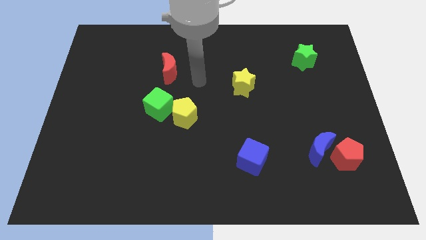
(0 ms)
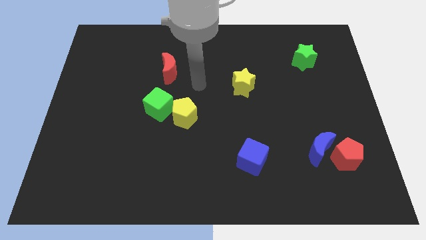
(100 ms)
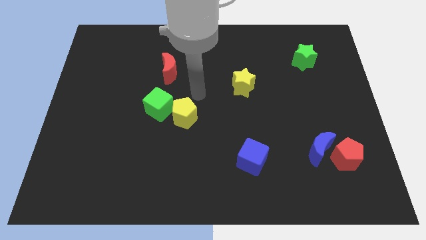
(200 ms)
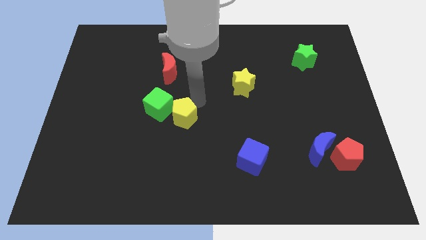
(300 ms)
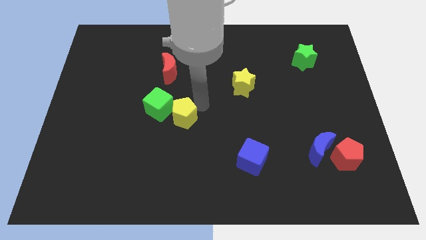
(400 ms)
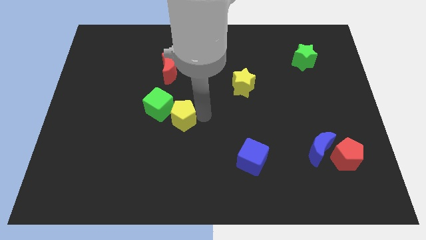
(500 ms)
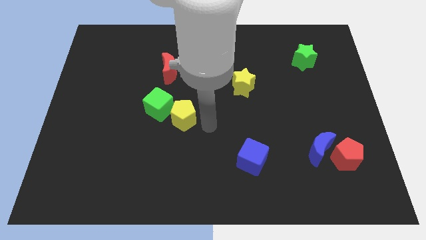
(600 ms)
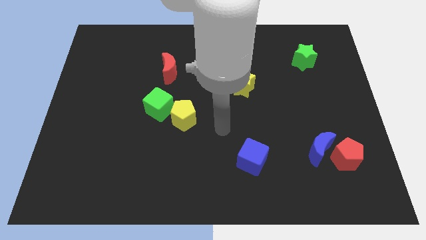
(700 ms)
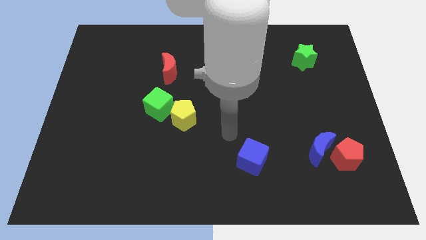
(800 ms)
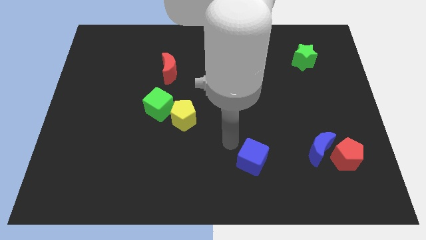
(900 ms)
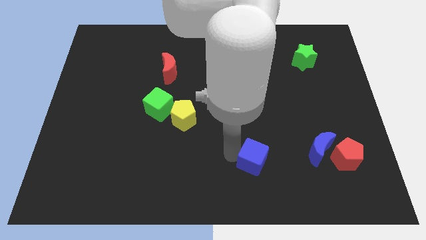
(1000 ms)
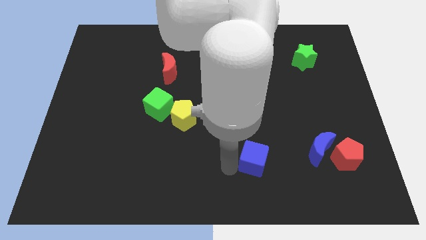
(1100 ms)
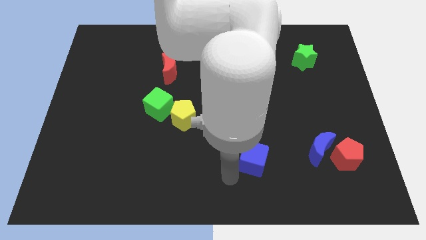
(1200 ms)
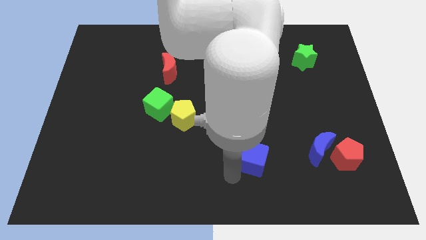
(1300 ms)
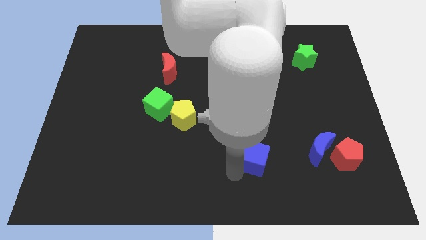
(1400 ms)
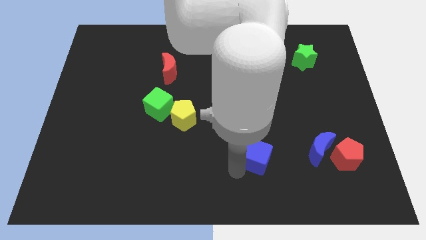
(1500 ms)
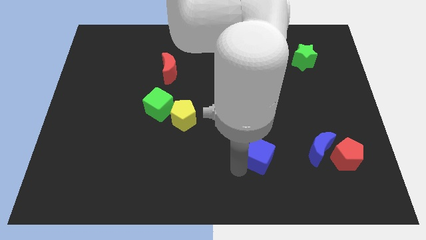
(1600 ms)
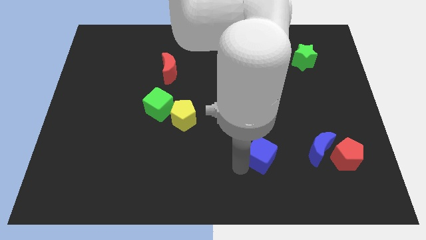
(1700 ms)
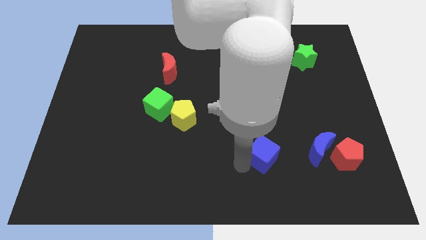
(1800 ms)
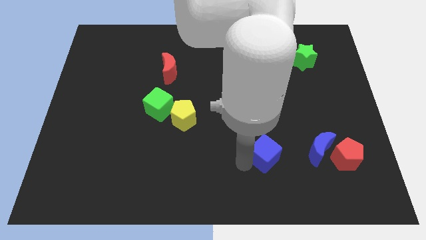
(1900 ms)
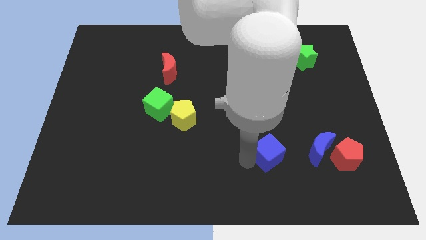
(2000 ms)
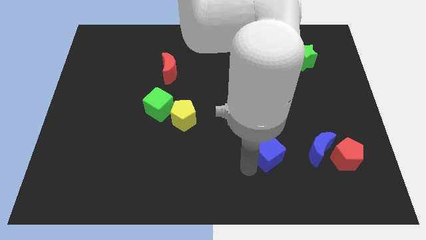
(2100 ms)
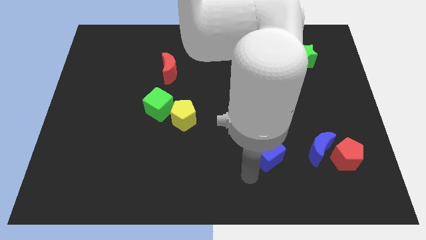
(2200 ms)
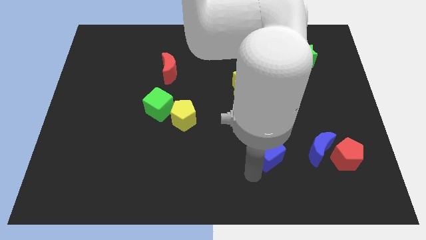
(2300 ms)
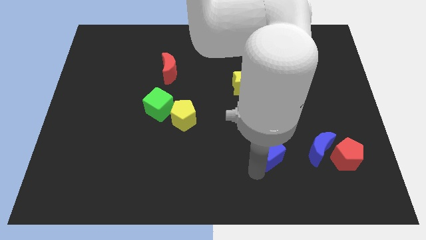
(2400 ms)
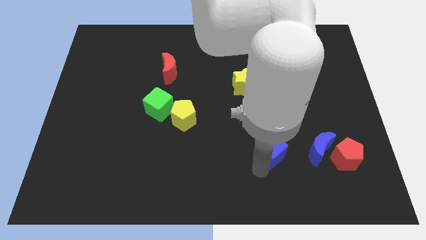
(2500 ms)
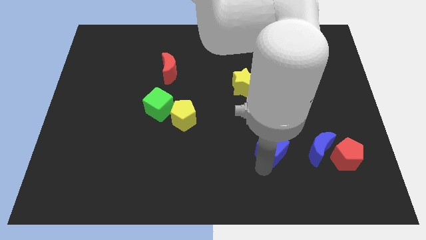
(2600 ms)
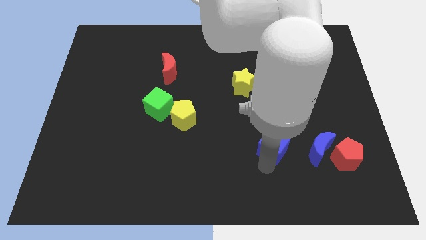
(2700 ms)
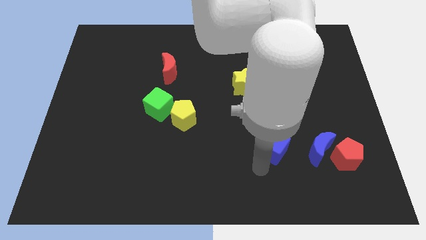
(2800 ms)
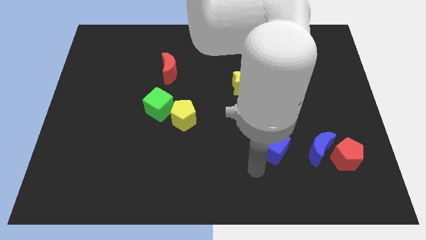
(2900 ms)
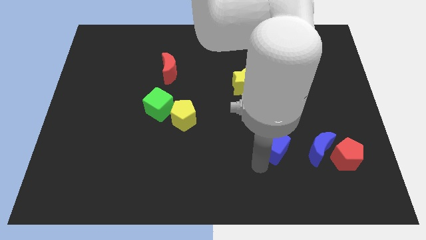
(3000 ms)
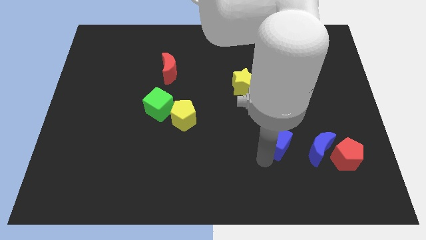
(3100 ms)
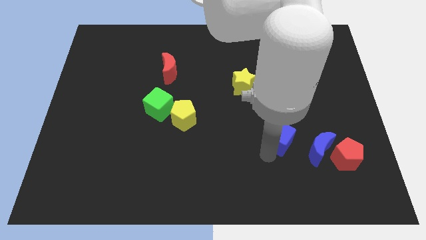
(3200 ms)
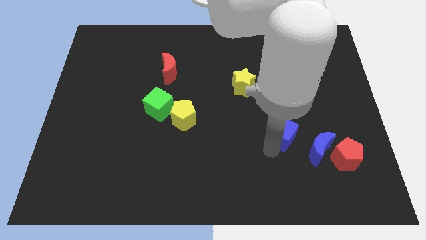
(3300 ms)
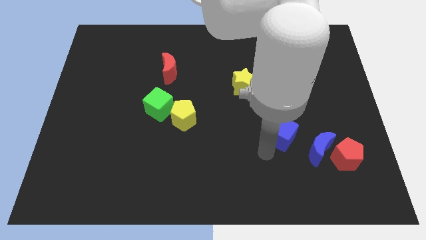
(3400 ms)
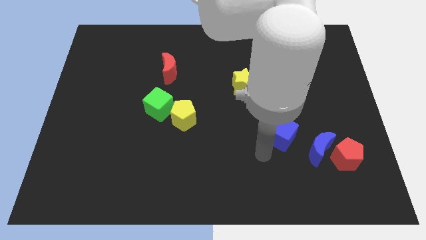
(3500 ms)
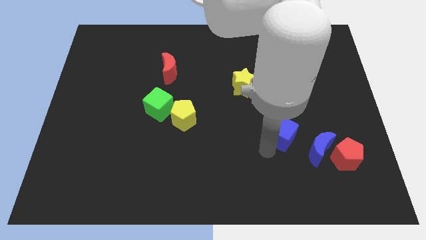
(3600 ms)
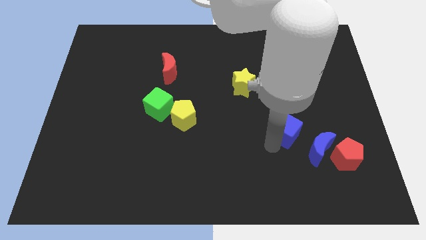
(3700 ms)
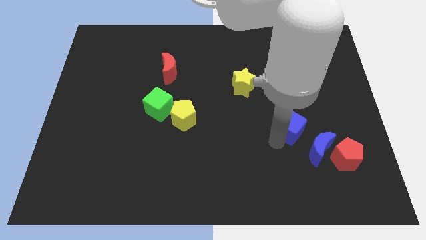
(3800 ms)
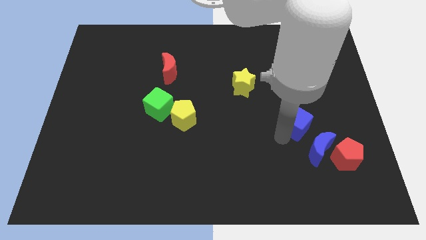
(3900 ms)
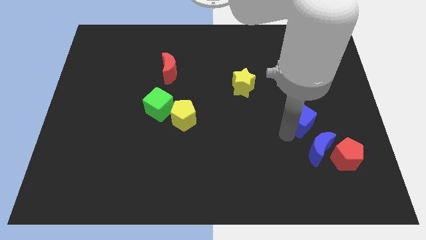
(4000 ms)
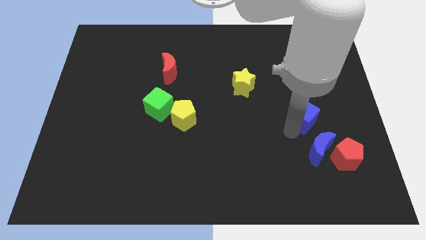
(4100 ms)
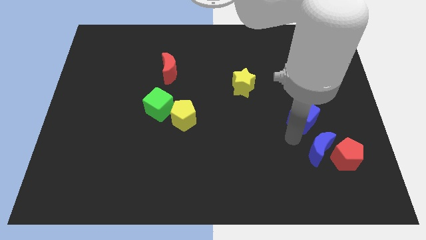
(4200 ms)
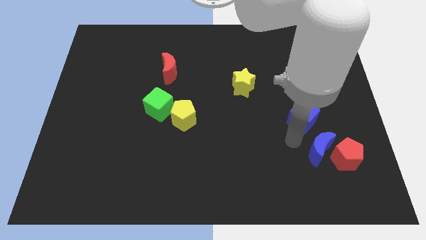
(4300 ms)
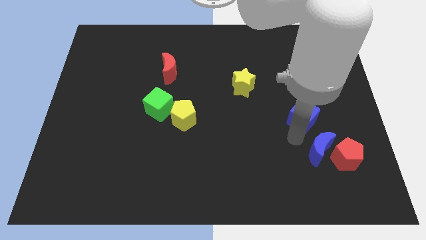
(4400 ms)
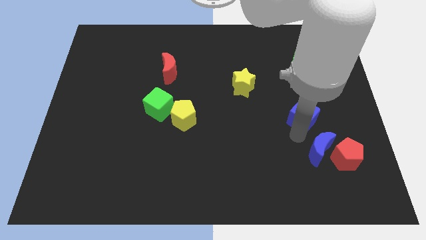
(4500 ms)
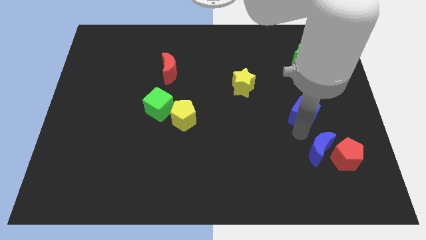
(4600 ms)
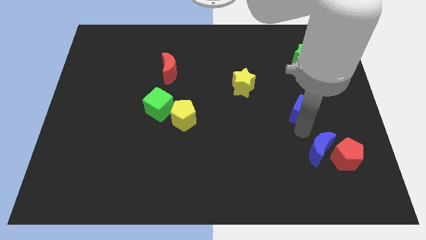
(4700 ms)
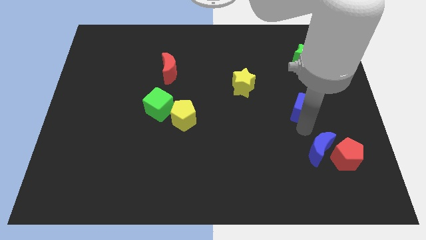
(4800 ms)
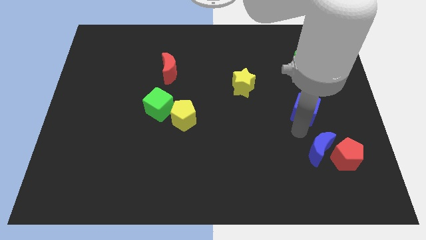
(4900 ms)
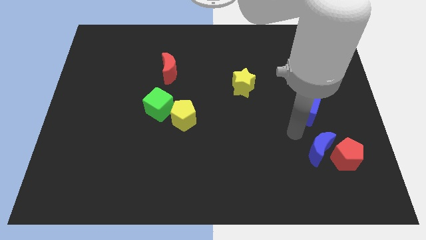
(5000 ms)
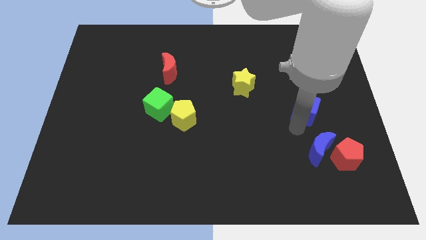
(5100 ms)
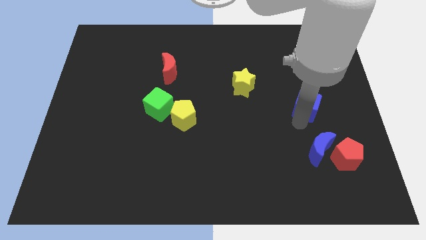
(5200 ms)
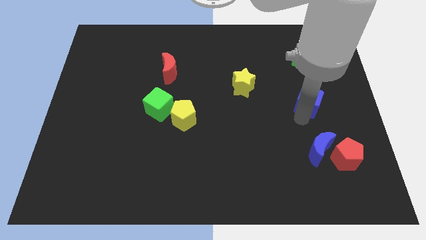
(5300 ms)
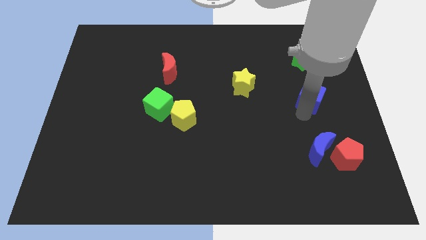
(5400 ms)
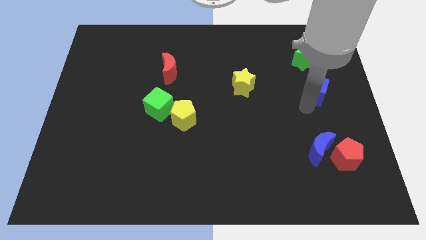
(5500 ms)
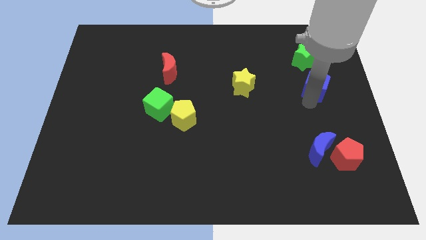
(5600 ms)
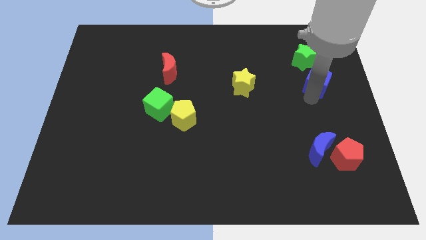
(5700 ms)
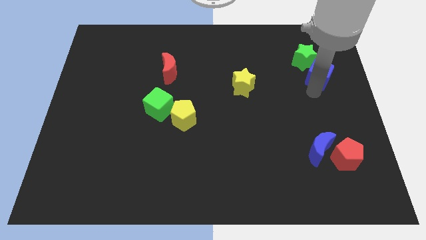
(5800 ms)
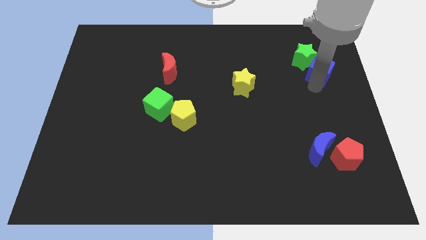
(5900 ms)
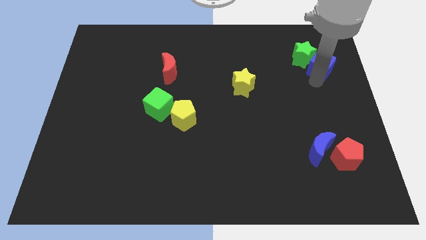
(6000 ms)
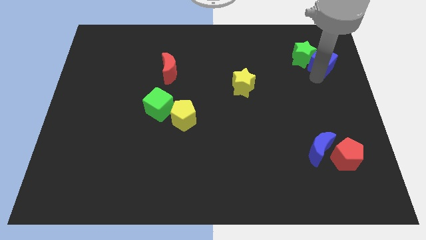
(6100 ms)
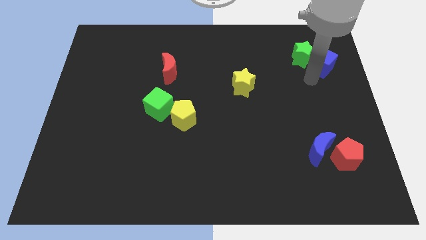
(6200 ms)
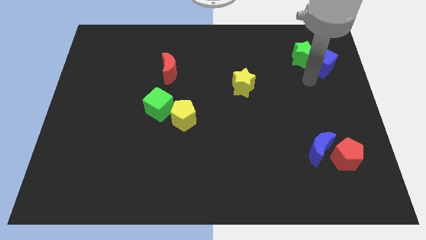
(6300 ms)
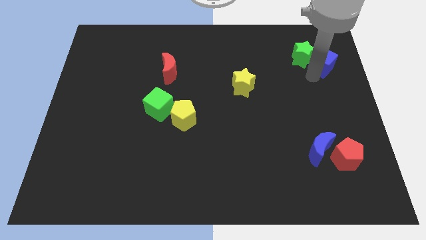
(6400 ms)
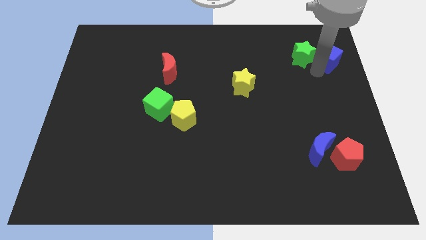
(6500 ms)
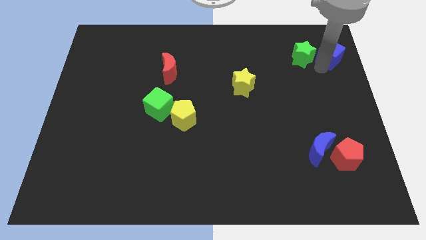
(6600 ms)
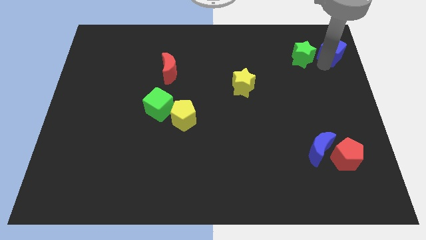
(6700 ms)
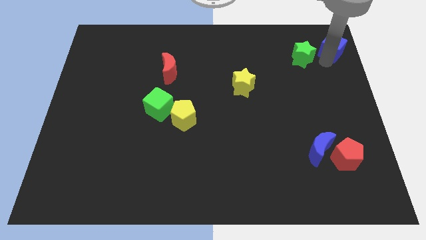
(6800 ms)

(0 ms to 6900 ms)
move the blue cube to the top right of the board
